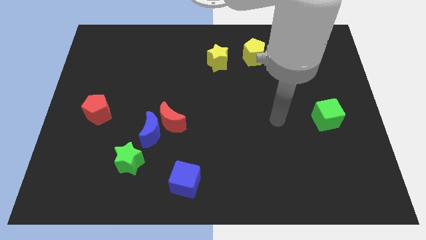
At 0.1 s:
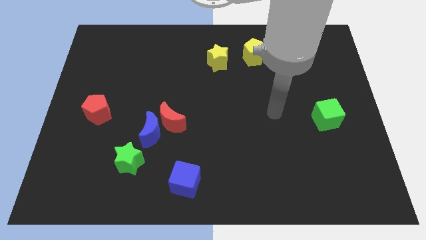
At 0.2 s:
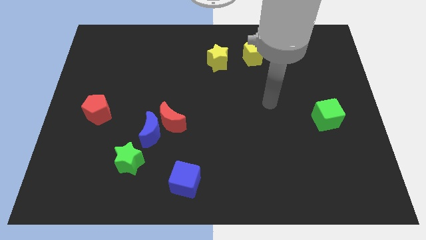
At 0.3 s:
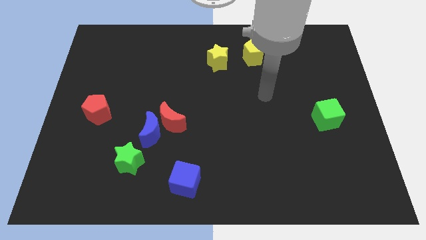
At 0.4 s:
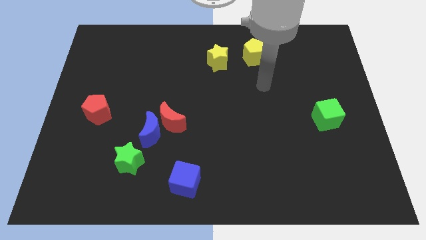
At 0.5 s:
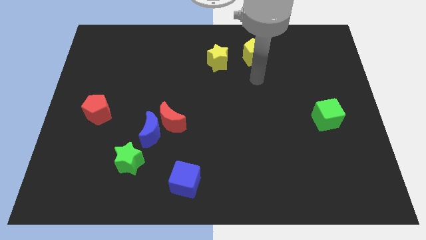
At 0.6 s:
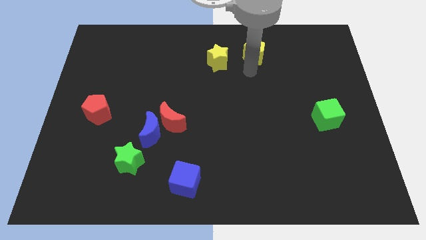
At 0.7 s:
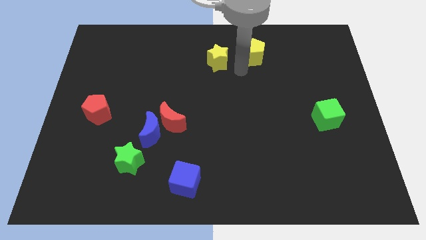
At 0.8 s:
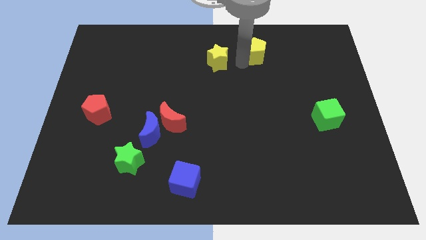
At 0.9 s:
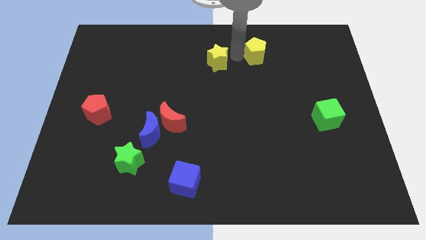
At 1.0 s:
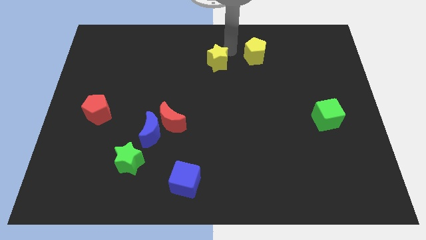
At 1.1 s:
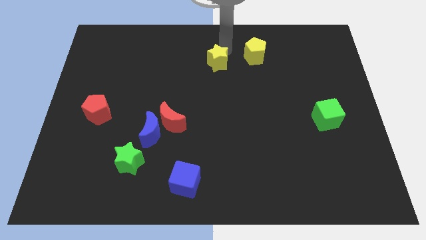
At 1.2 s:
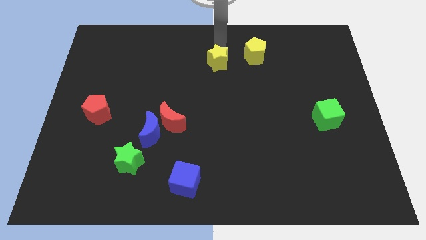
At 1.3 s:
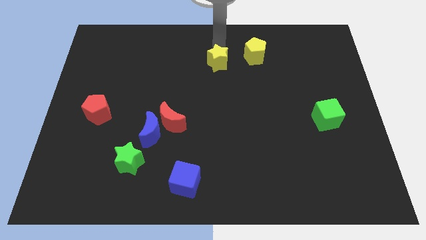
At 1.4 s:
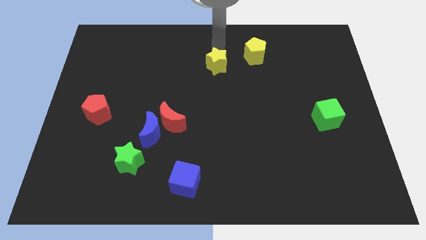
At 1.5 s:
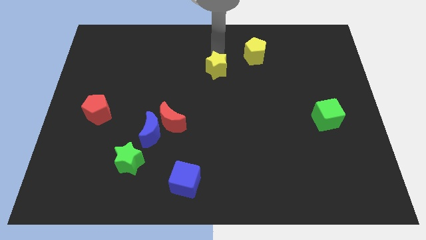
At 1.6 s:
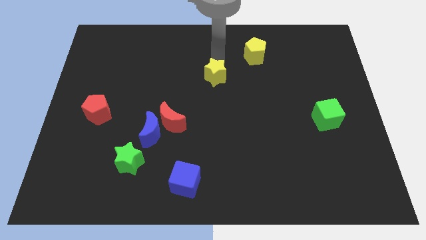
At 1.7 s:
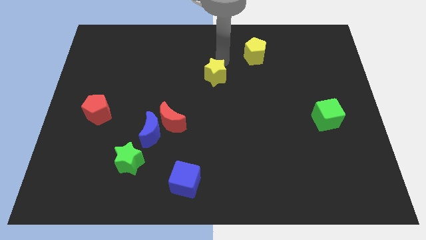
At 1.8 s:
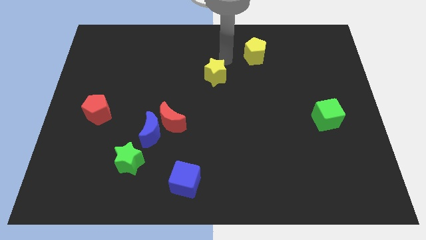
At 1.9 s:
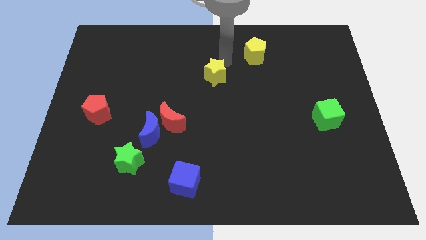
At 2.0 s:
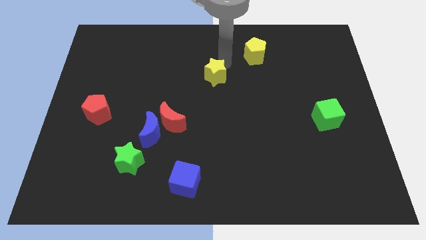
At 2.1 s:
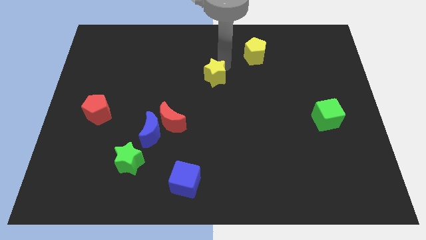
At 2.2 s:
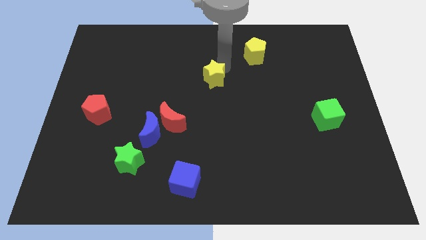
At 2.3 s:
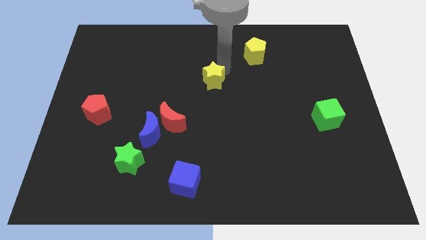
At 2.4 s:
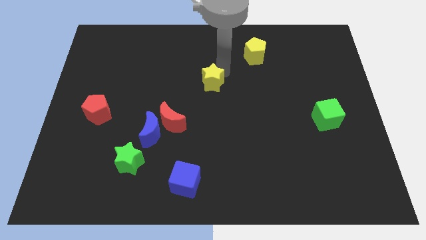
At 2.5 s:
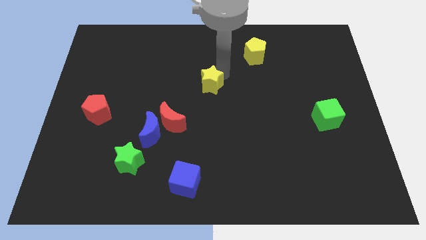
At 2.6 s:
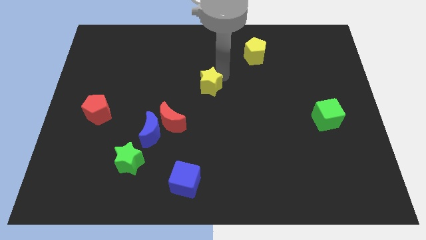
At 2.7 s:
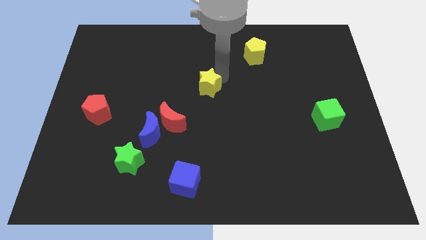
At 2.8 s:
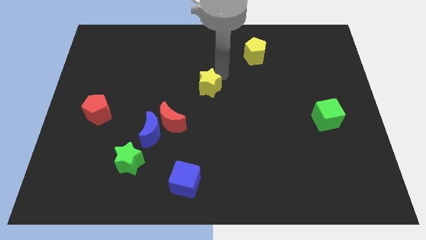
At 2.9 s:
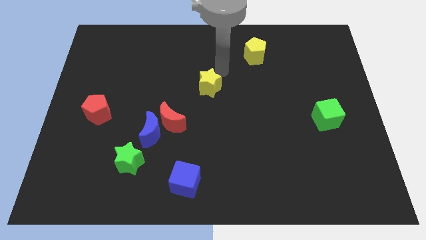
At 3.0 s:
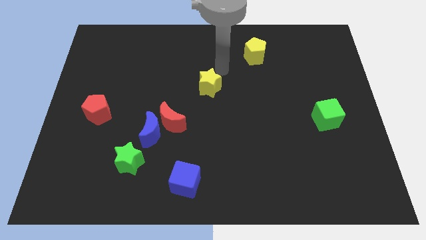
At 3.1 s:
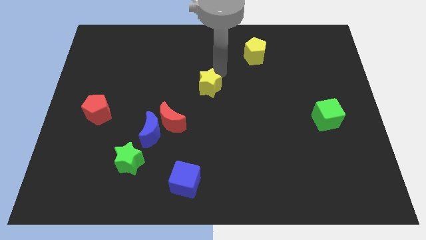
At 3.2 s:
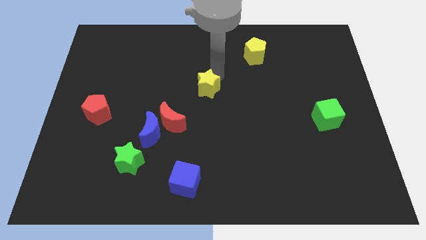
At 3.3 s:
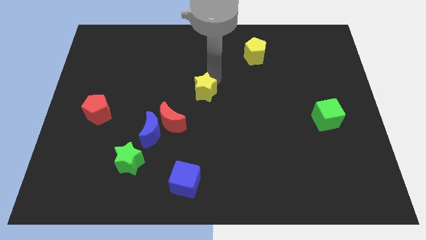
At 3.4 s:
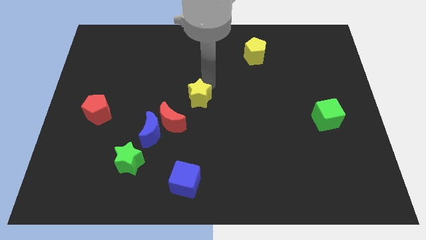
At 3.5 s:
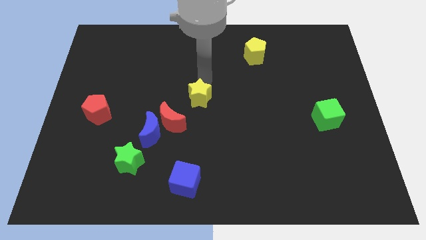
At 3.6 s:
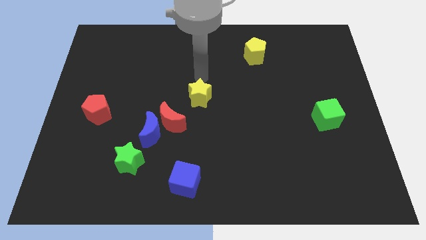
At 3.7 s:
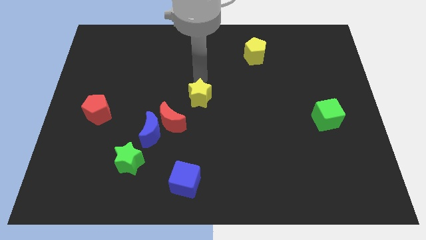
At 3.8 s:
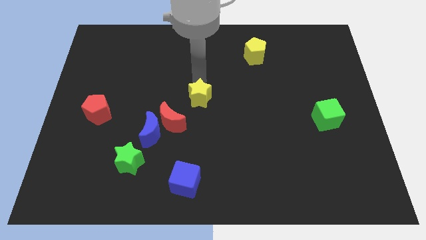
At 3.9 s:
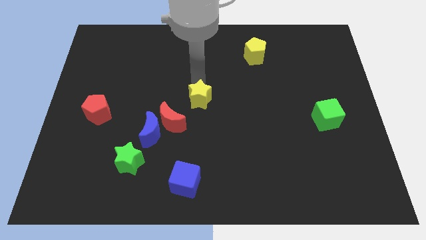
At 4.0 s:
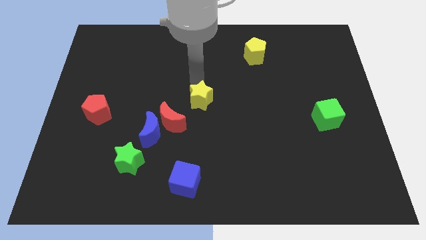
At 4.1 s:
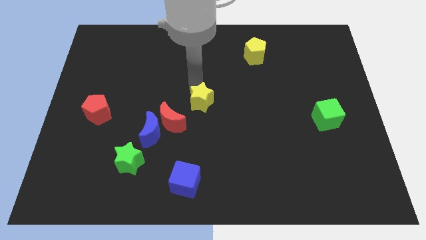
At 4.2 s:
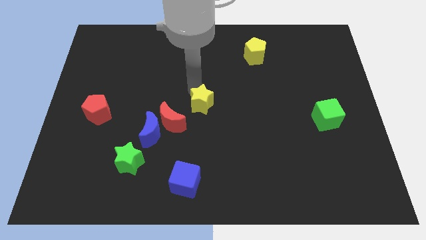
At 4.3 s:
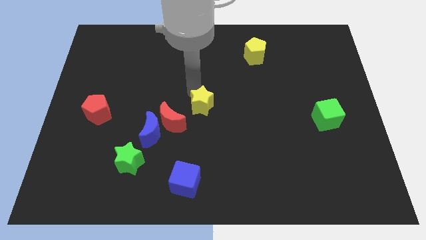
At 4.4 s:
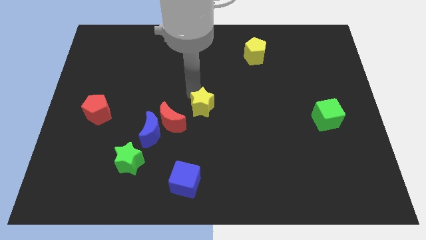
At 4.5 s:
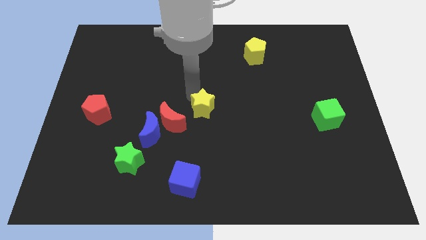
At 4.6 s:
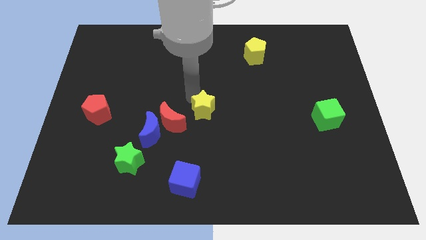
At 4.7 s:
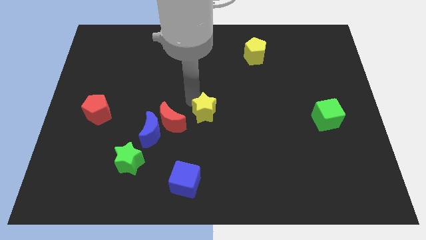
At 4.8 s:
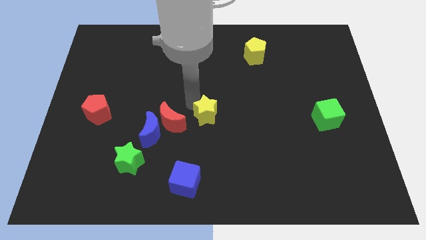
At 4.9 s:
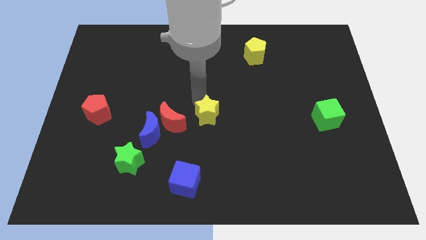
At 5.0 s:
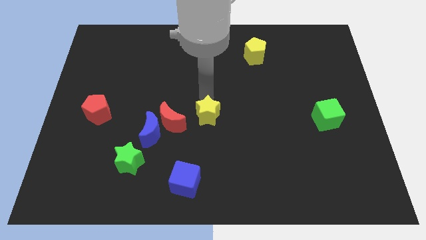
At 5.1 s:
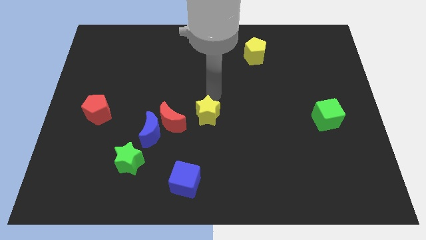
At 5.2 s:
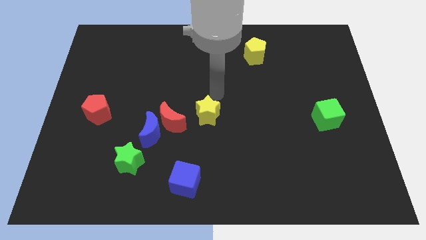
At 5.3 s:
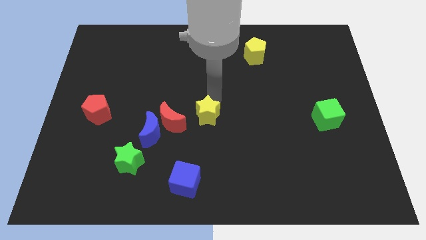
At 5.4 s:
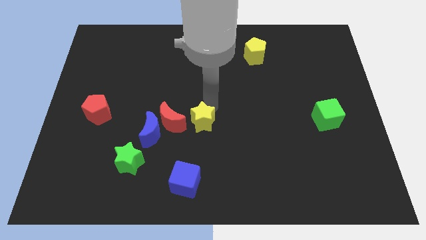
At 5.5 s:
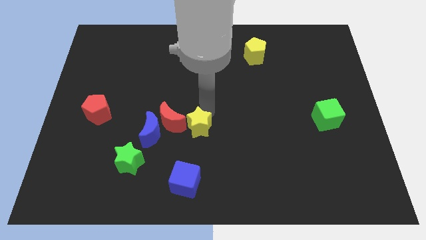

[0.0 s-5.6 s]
slide the yellow star diagonally down and to the right of the red moon

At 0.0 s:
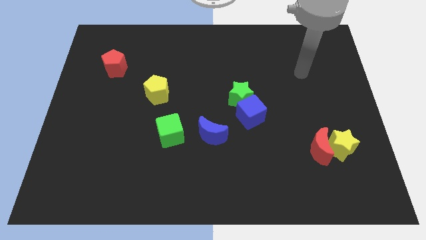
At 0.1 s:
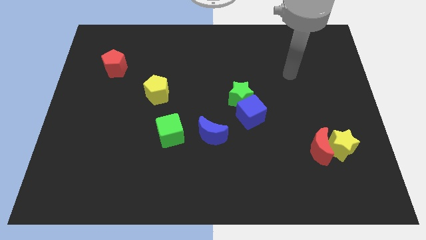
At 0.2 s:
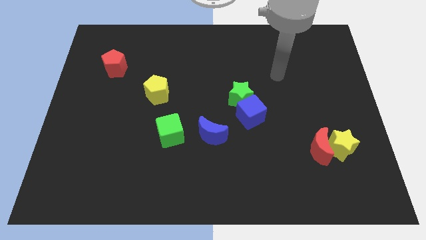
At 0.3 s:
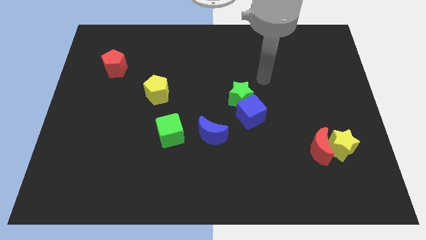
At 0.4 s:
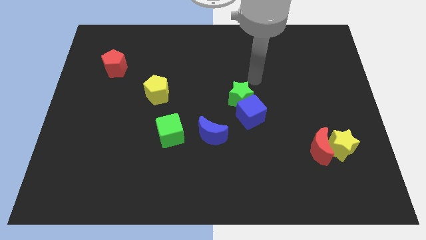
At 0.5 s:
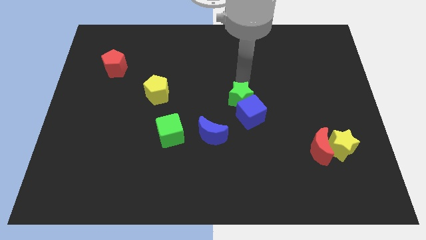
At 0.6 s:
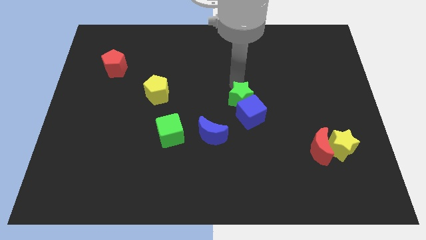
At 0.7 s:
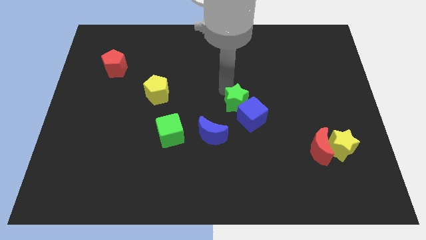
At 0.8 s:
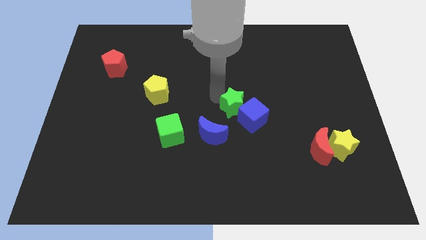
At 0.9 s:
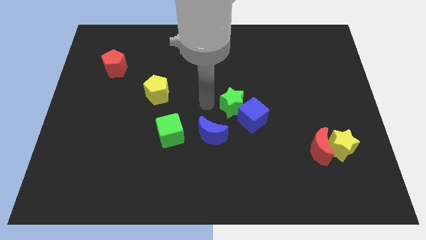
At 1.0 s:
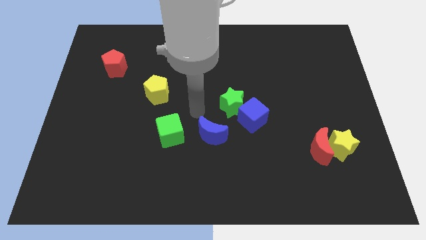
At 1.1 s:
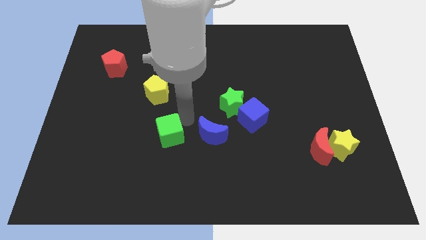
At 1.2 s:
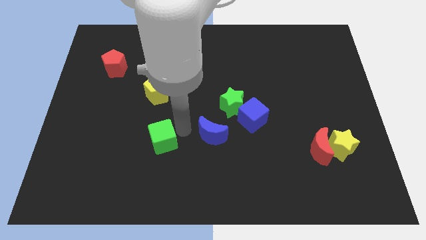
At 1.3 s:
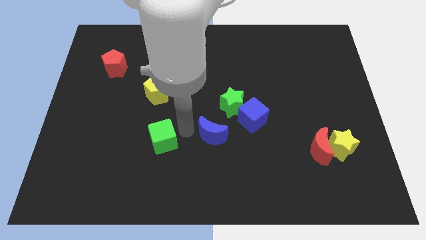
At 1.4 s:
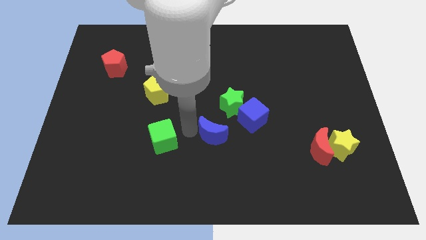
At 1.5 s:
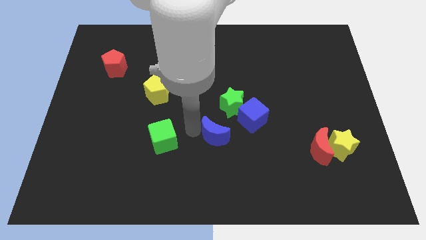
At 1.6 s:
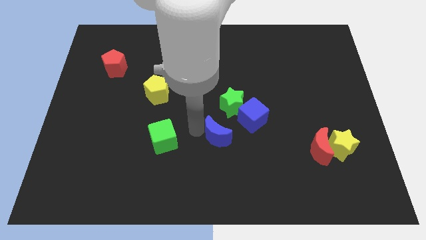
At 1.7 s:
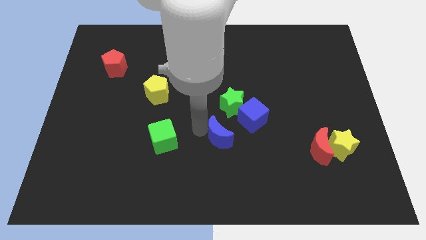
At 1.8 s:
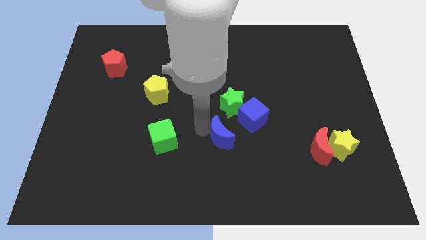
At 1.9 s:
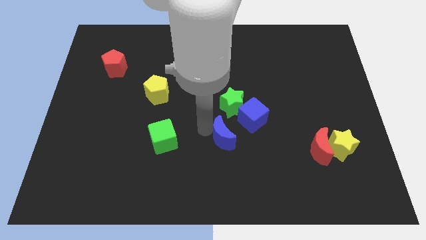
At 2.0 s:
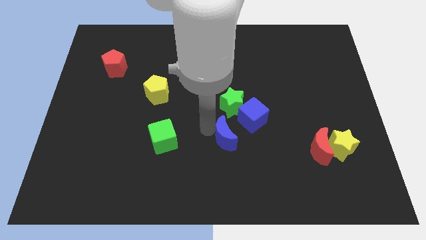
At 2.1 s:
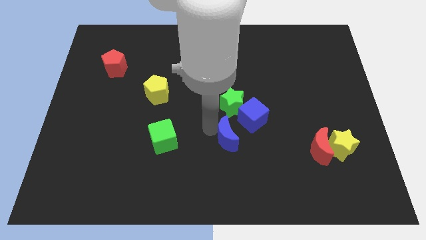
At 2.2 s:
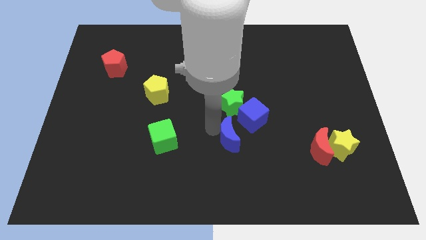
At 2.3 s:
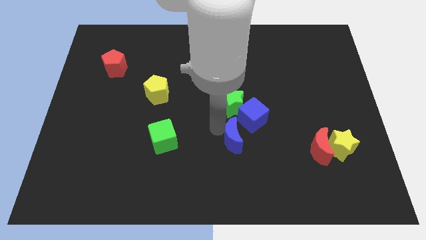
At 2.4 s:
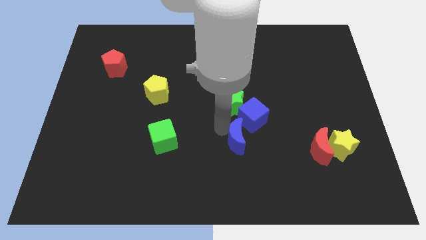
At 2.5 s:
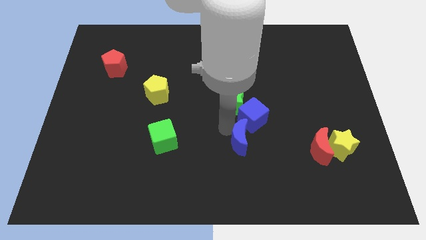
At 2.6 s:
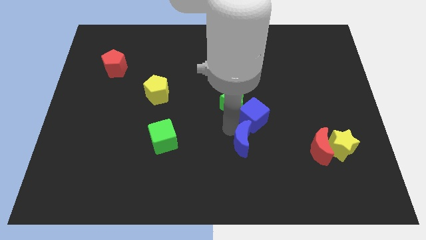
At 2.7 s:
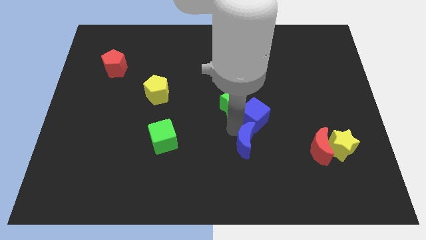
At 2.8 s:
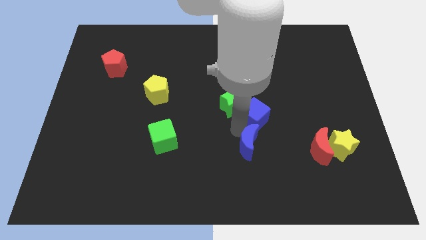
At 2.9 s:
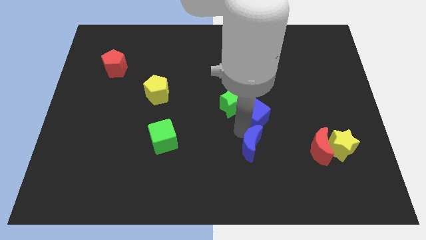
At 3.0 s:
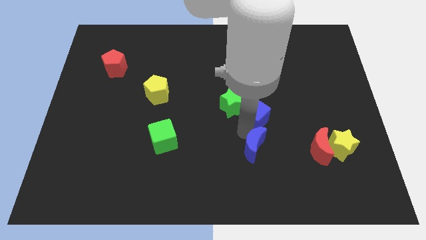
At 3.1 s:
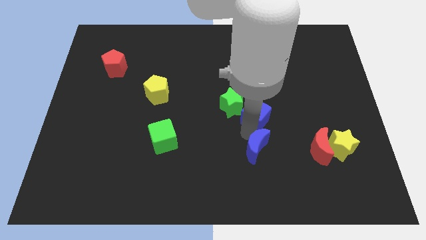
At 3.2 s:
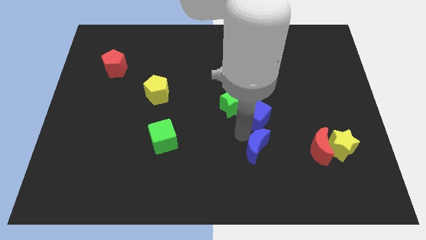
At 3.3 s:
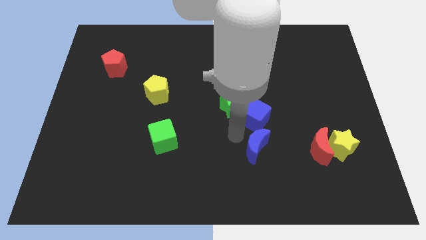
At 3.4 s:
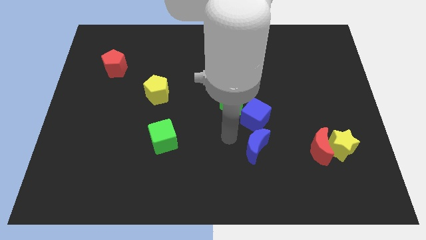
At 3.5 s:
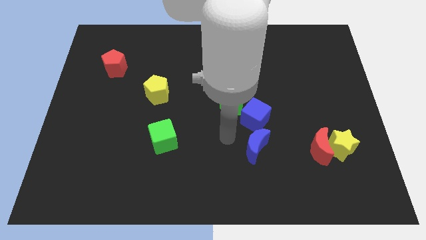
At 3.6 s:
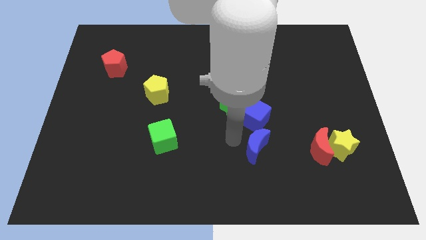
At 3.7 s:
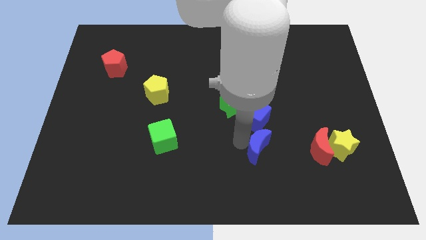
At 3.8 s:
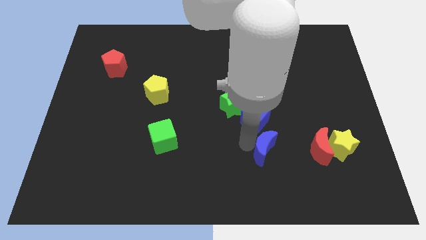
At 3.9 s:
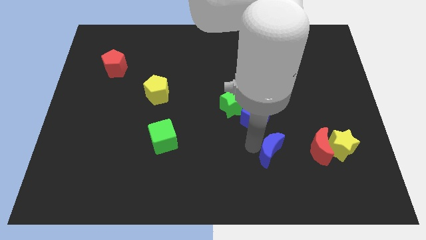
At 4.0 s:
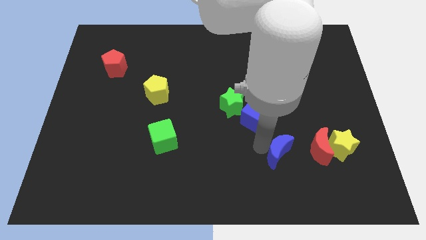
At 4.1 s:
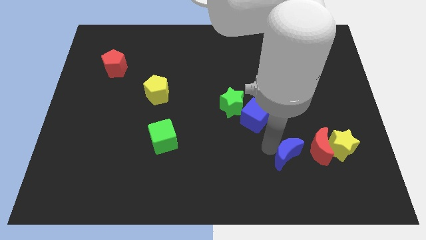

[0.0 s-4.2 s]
put the blue moon to the bottom left of the red moon
